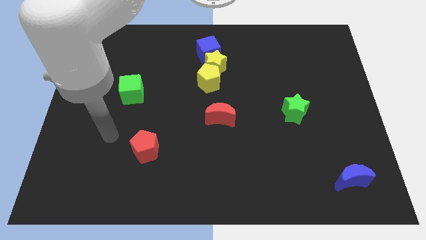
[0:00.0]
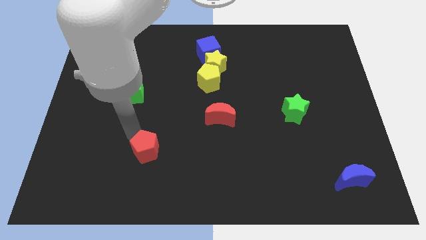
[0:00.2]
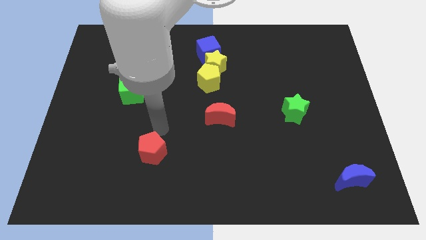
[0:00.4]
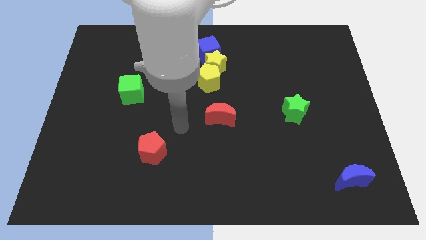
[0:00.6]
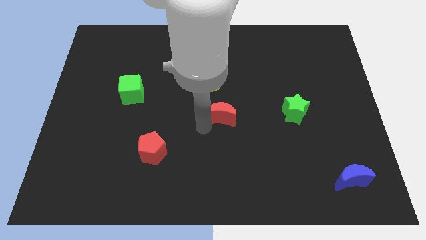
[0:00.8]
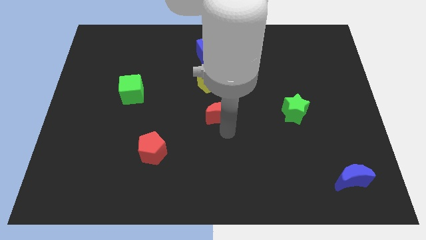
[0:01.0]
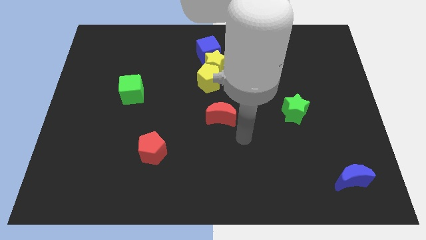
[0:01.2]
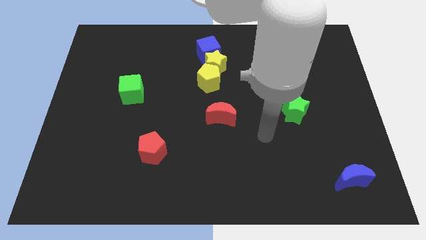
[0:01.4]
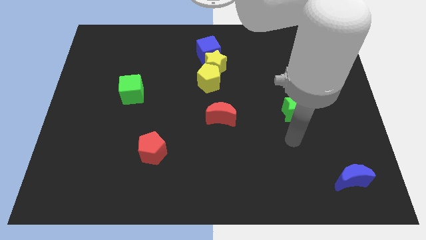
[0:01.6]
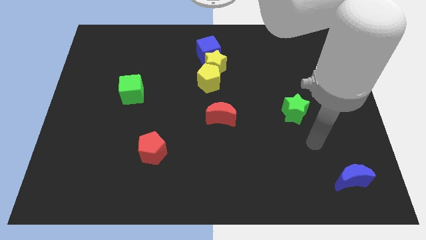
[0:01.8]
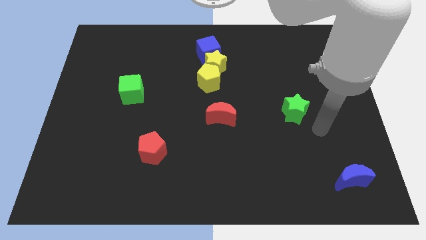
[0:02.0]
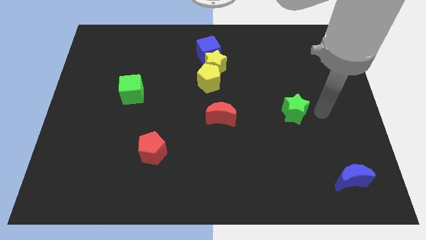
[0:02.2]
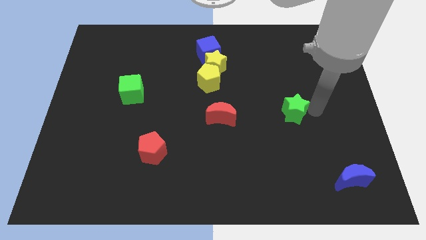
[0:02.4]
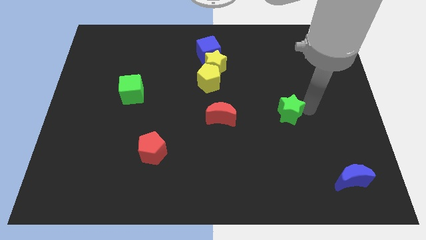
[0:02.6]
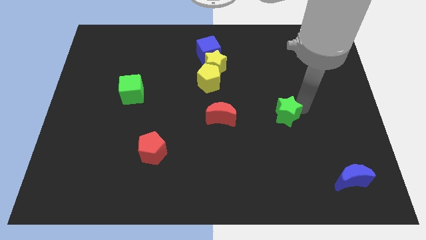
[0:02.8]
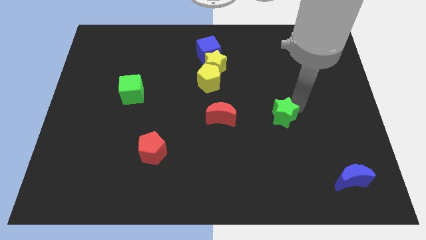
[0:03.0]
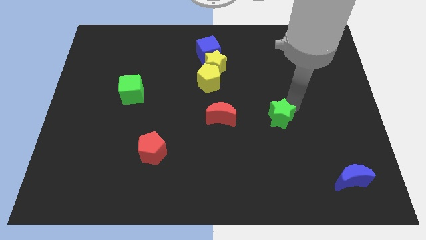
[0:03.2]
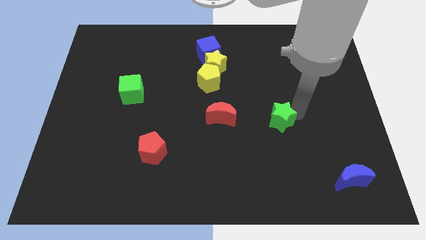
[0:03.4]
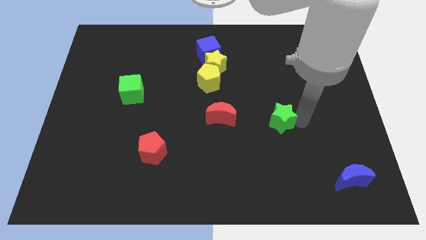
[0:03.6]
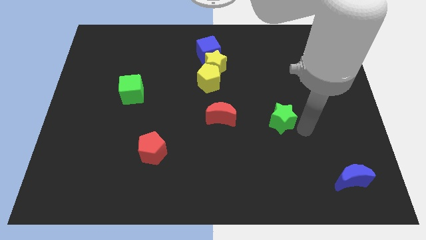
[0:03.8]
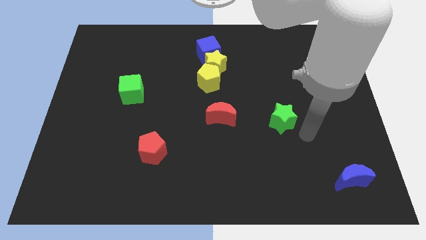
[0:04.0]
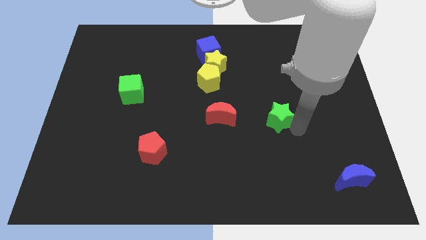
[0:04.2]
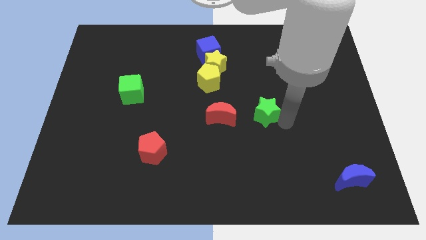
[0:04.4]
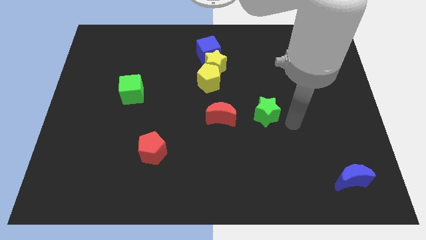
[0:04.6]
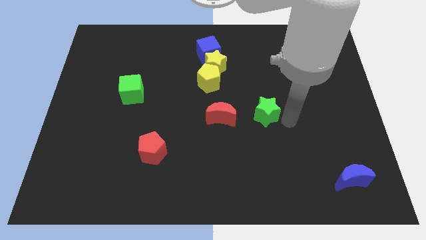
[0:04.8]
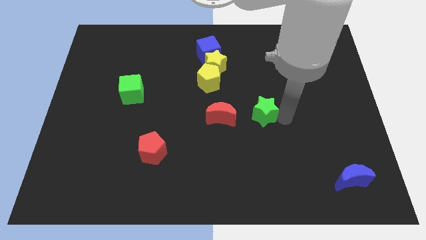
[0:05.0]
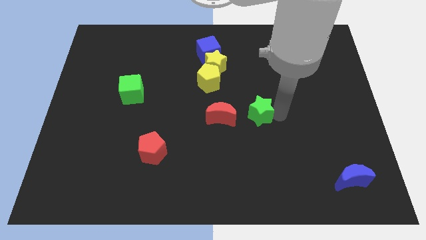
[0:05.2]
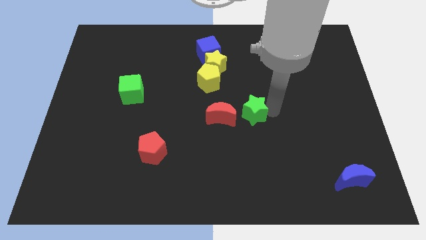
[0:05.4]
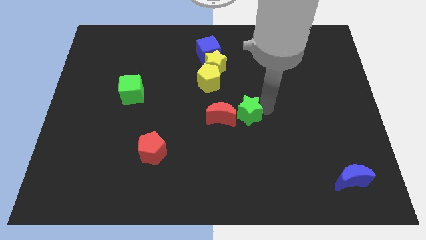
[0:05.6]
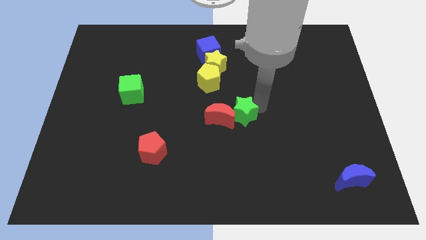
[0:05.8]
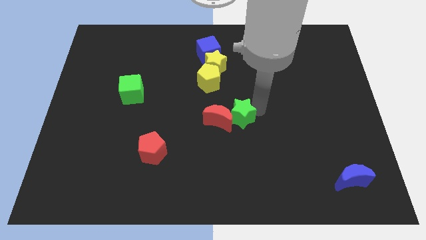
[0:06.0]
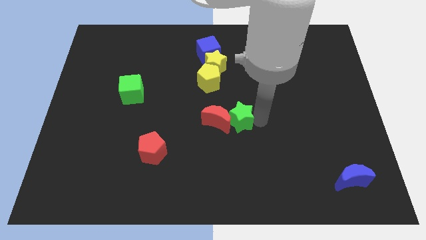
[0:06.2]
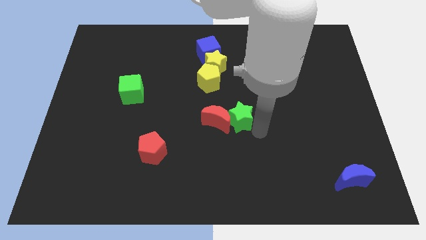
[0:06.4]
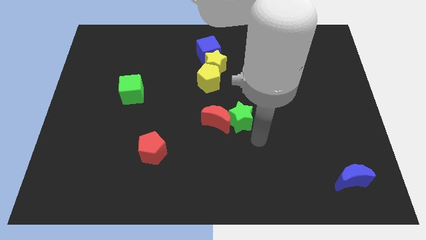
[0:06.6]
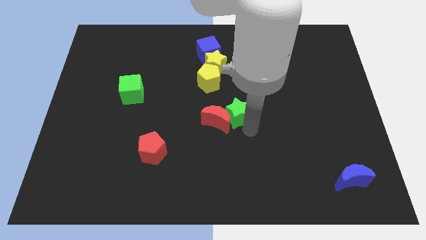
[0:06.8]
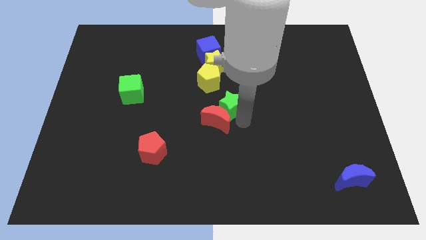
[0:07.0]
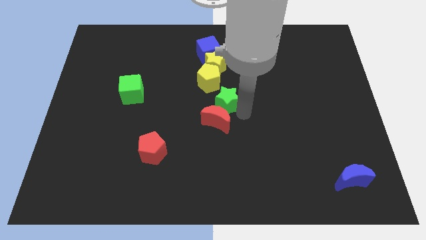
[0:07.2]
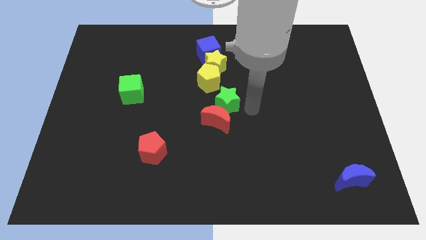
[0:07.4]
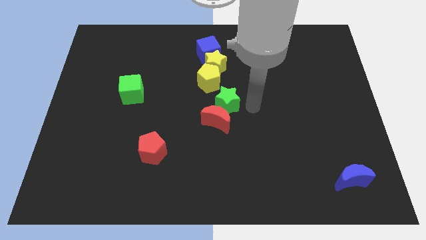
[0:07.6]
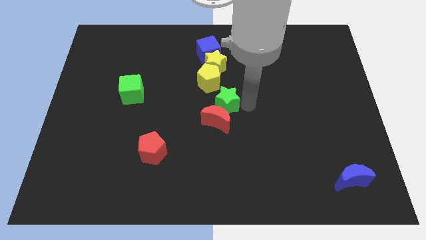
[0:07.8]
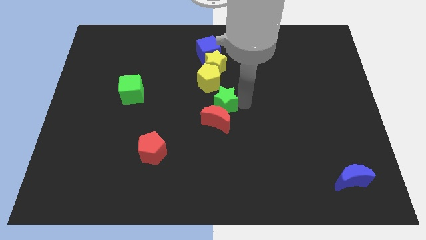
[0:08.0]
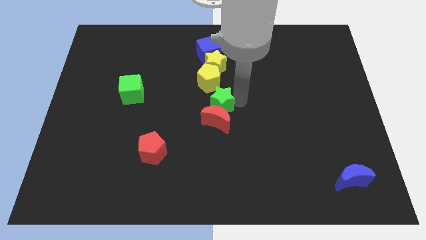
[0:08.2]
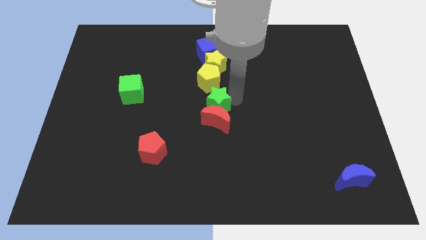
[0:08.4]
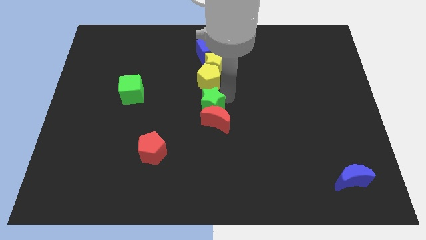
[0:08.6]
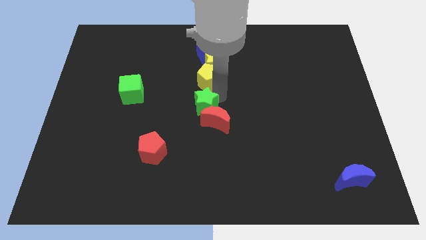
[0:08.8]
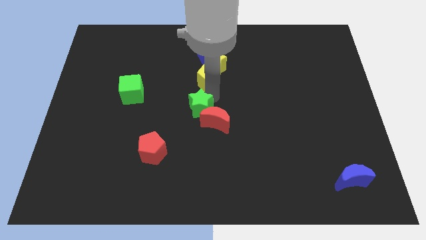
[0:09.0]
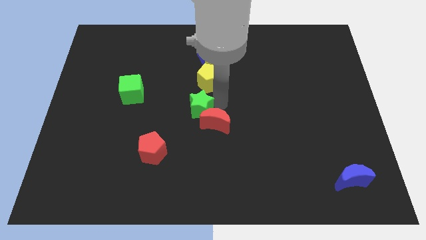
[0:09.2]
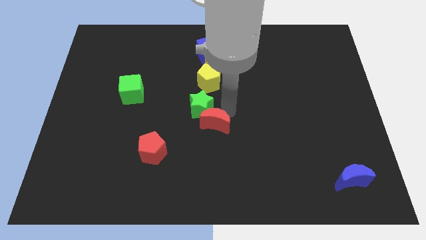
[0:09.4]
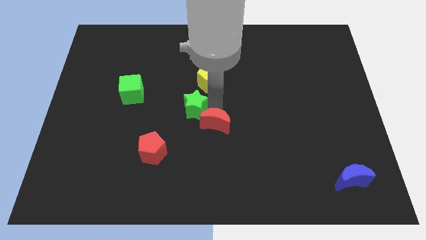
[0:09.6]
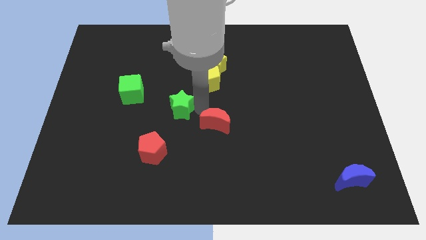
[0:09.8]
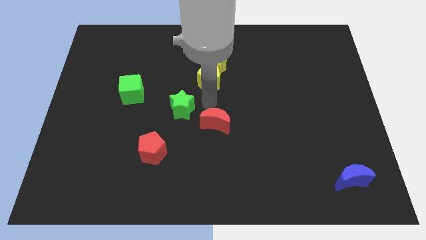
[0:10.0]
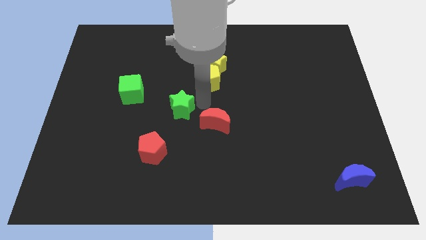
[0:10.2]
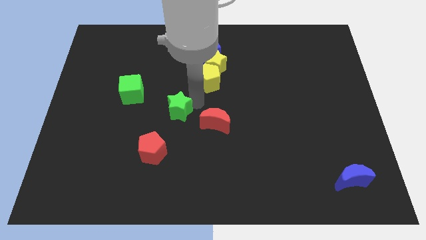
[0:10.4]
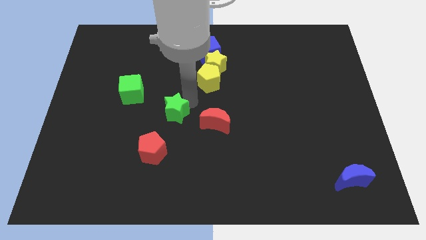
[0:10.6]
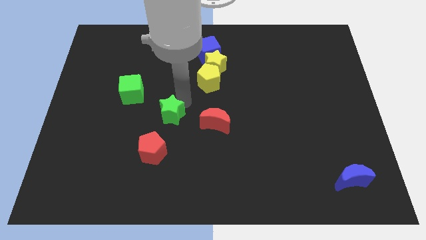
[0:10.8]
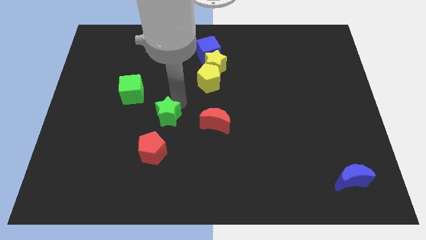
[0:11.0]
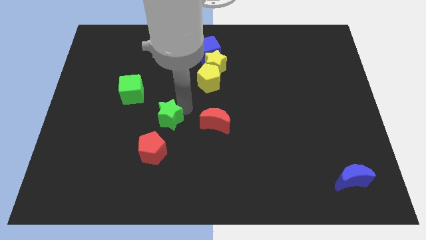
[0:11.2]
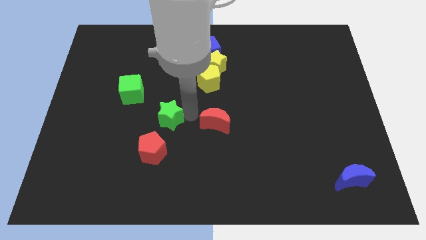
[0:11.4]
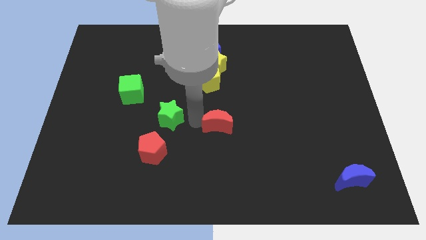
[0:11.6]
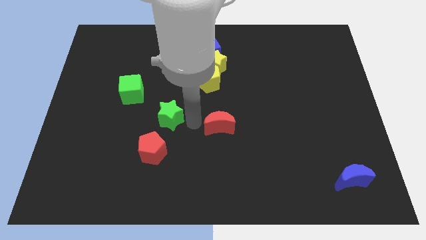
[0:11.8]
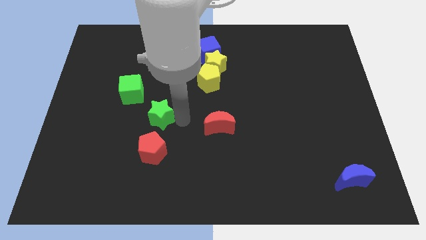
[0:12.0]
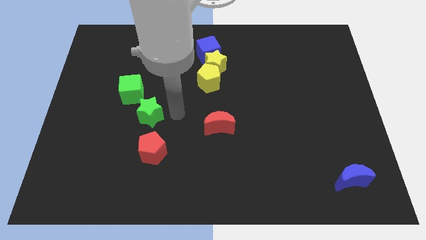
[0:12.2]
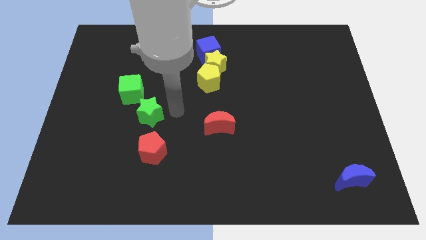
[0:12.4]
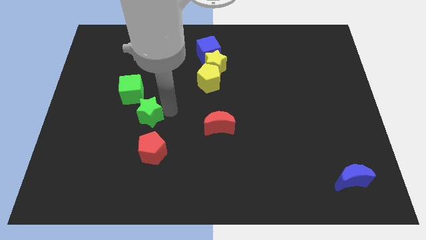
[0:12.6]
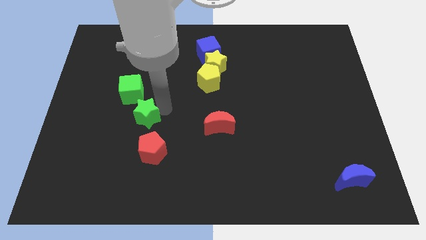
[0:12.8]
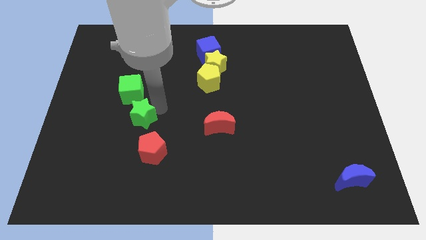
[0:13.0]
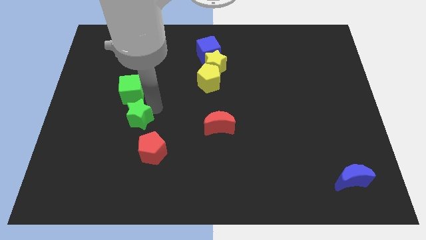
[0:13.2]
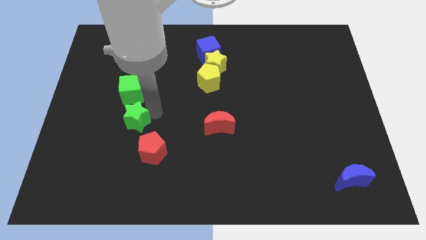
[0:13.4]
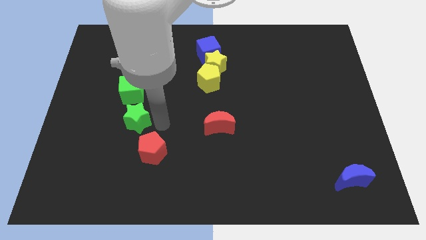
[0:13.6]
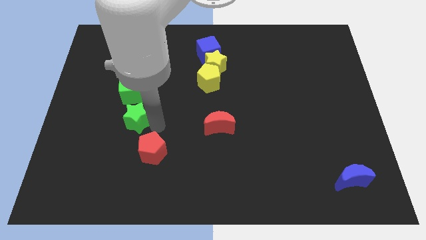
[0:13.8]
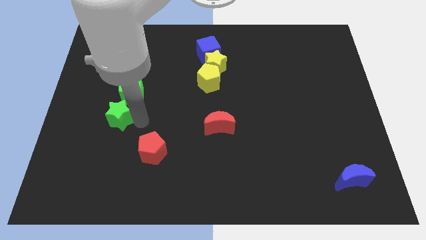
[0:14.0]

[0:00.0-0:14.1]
slide the green star diagonally down and to the left of the green cube

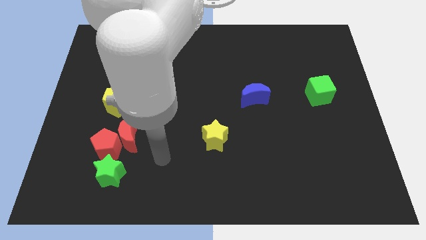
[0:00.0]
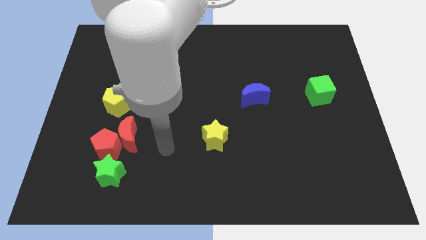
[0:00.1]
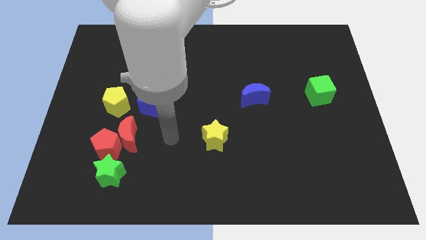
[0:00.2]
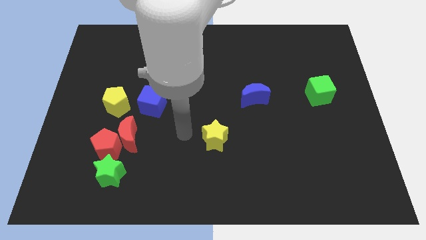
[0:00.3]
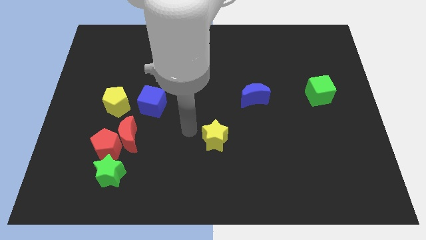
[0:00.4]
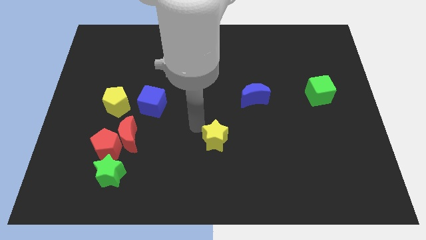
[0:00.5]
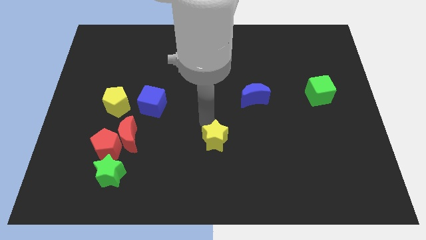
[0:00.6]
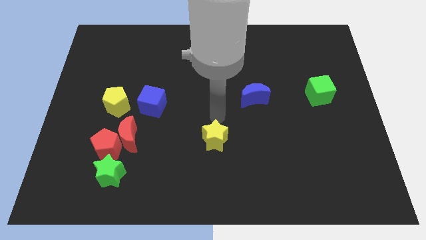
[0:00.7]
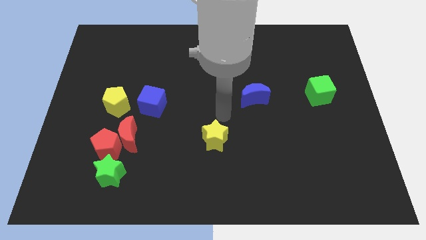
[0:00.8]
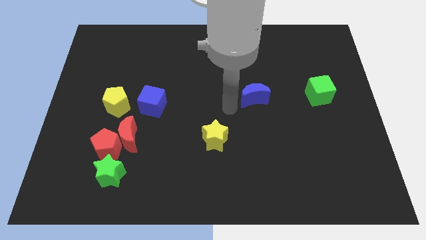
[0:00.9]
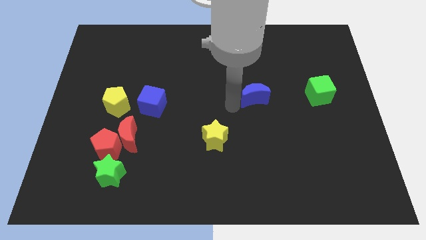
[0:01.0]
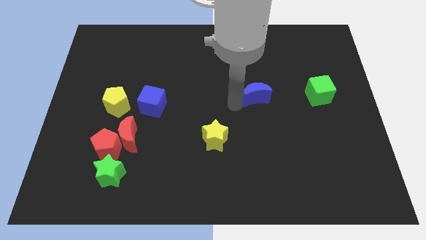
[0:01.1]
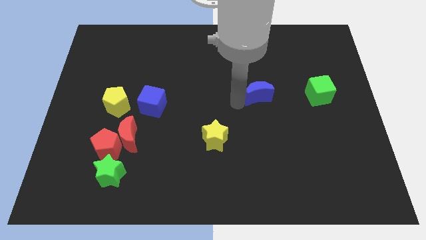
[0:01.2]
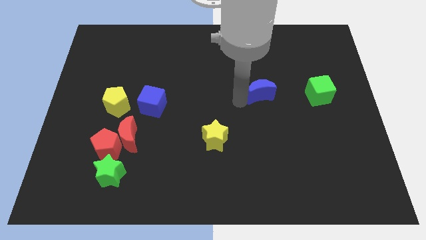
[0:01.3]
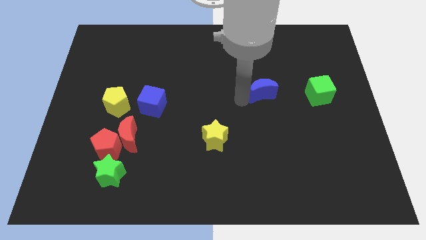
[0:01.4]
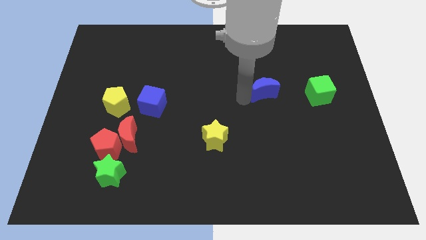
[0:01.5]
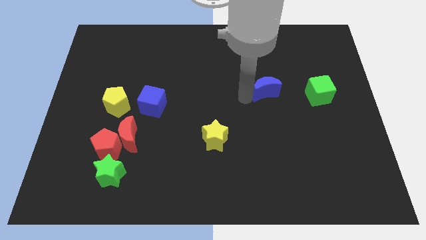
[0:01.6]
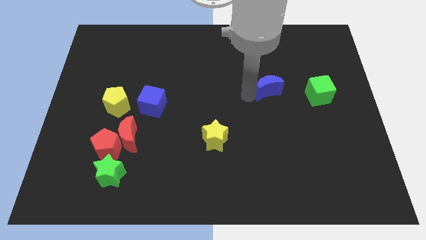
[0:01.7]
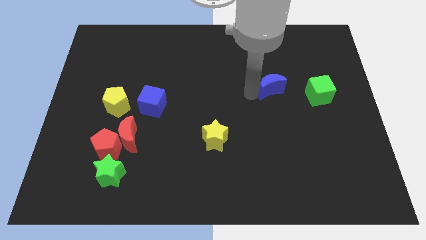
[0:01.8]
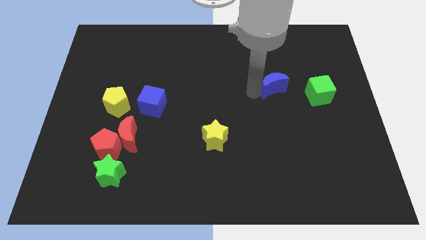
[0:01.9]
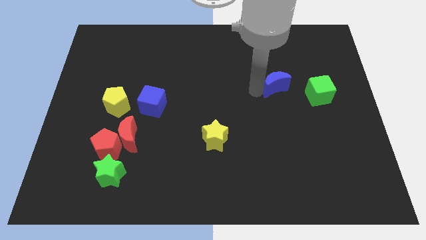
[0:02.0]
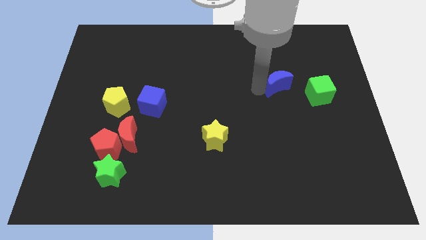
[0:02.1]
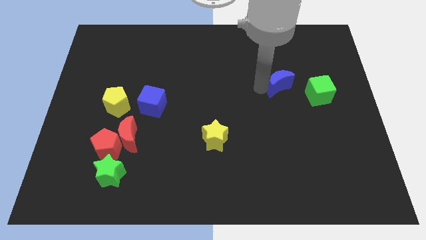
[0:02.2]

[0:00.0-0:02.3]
put the blue moon diagonally up and to the left of the green cube
